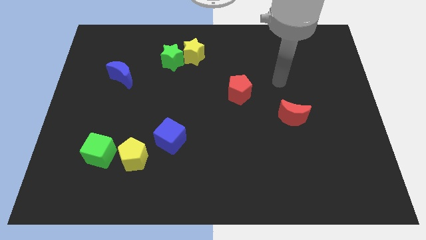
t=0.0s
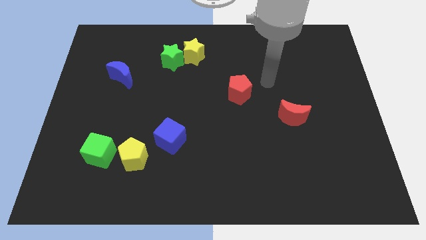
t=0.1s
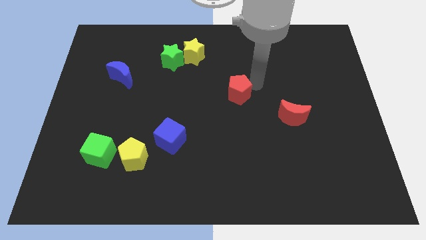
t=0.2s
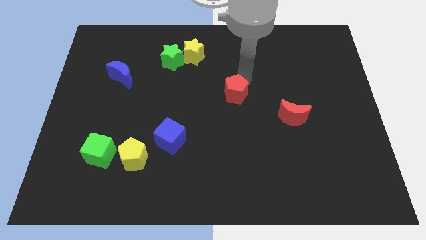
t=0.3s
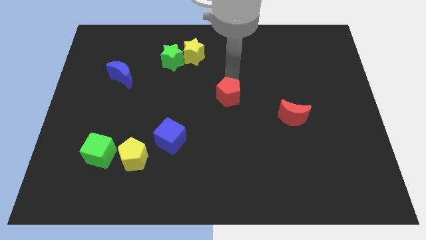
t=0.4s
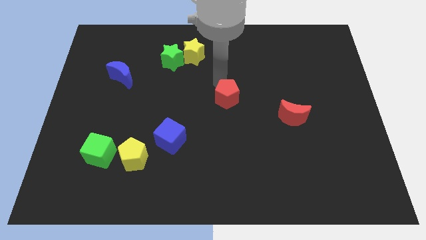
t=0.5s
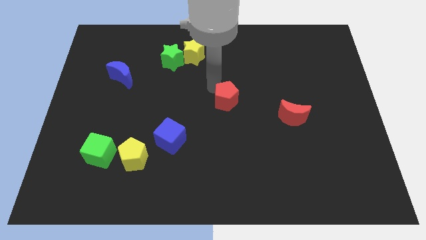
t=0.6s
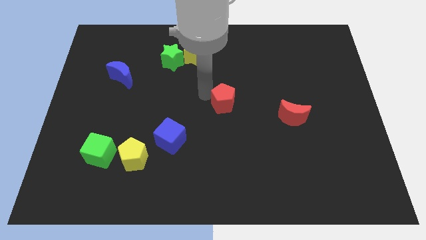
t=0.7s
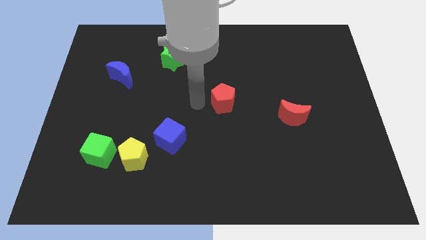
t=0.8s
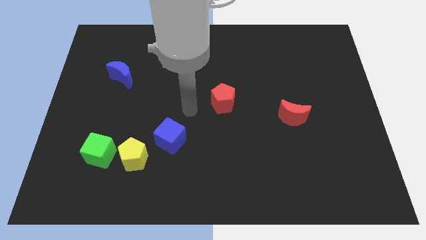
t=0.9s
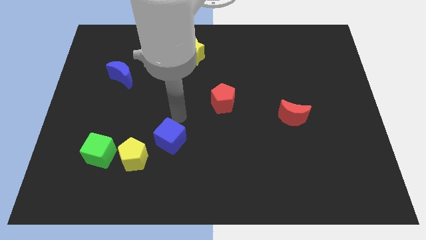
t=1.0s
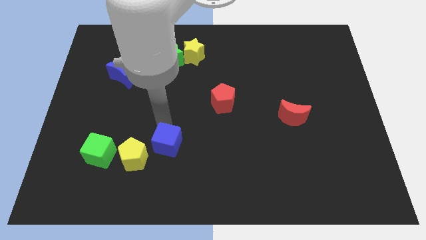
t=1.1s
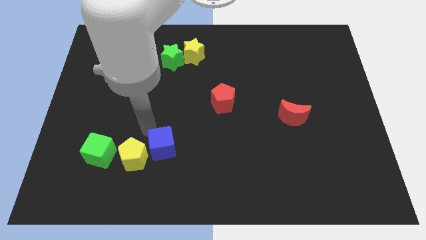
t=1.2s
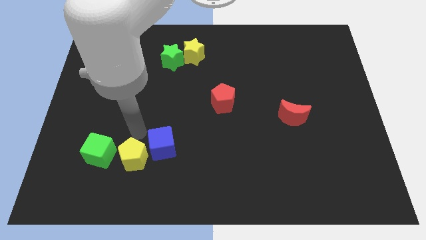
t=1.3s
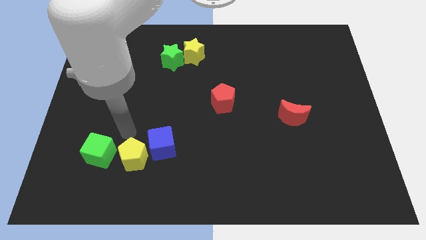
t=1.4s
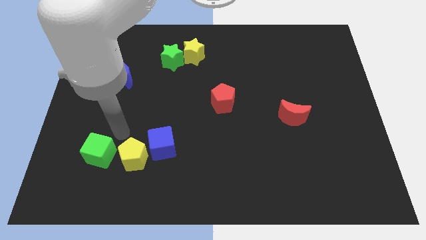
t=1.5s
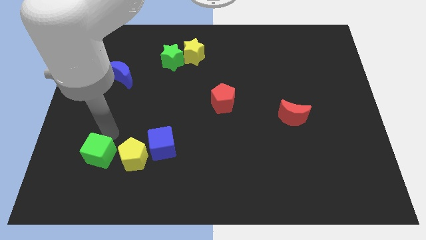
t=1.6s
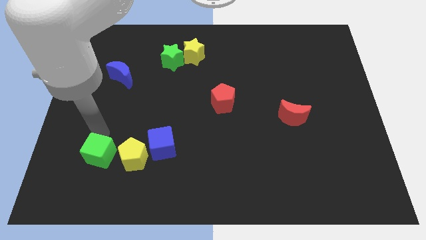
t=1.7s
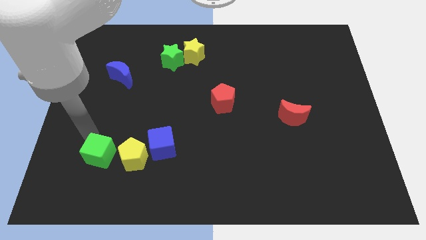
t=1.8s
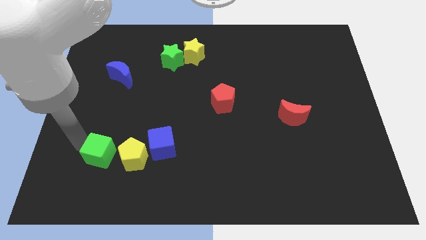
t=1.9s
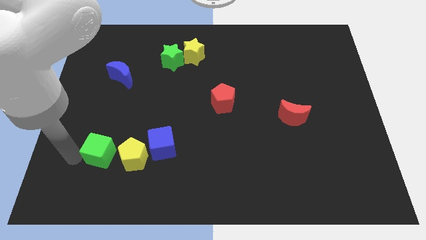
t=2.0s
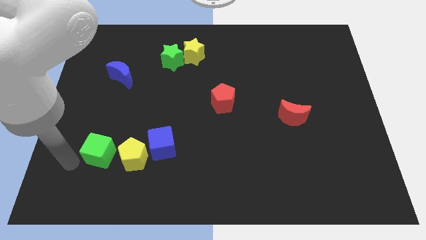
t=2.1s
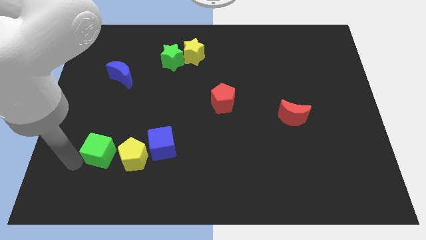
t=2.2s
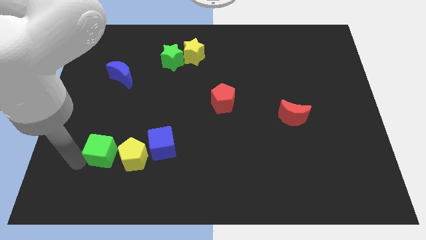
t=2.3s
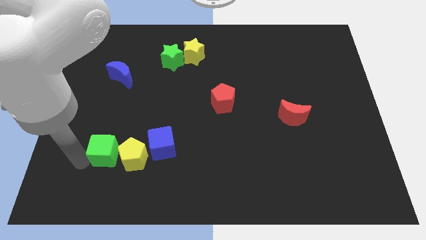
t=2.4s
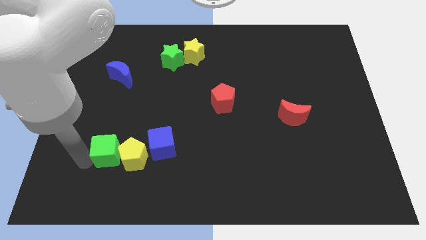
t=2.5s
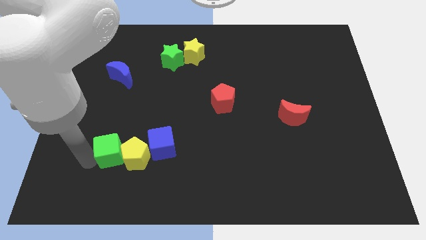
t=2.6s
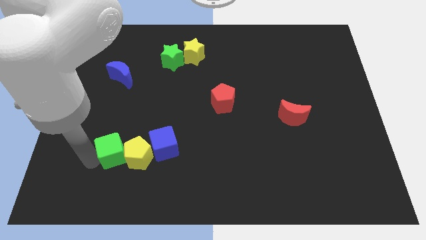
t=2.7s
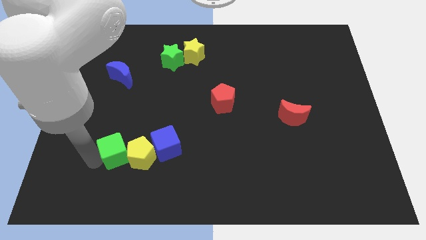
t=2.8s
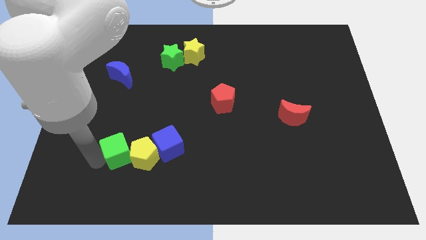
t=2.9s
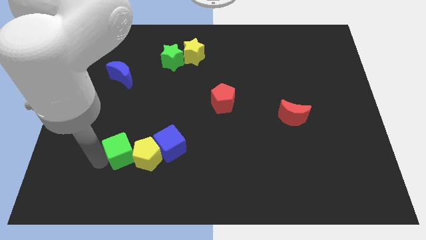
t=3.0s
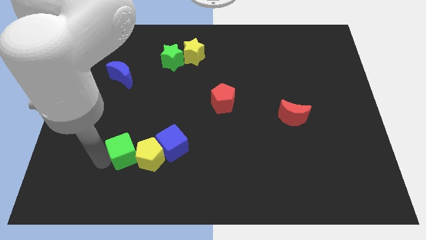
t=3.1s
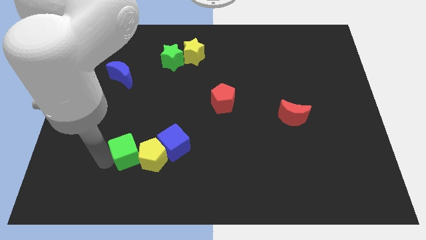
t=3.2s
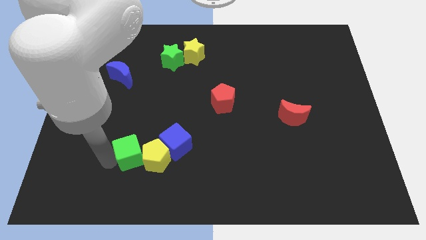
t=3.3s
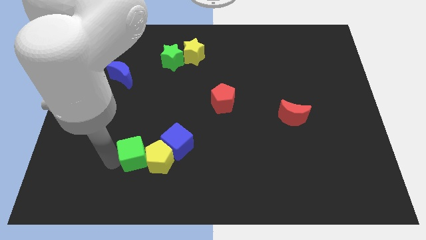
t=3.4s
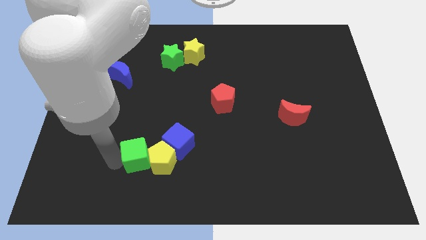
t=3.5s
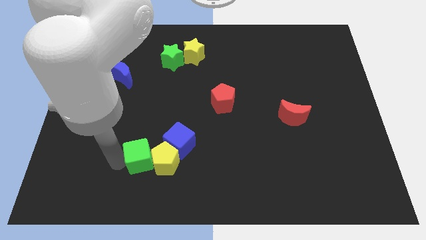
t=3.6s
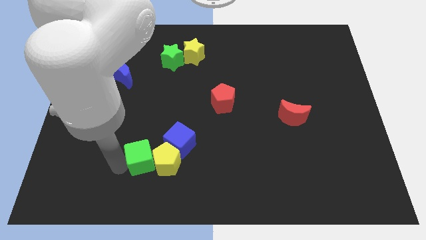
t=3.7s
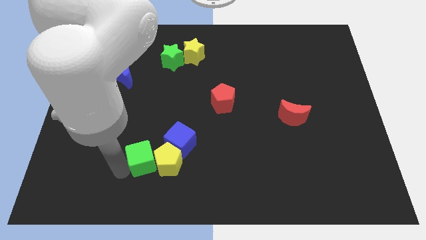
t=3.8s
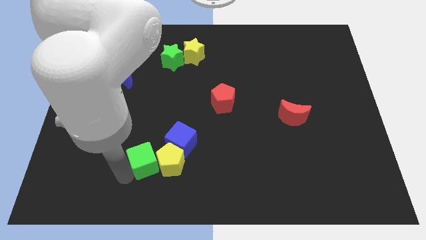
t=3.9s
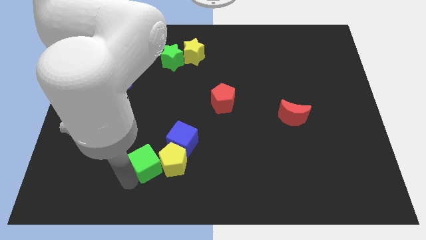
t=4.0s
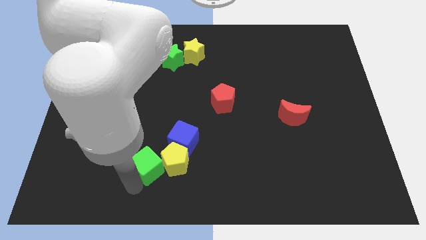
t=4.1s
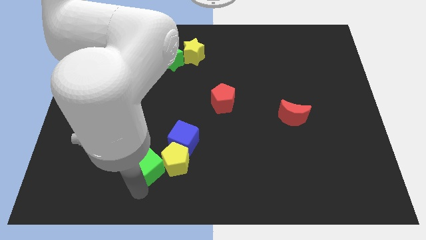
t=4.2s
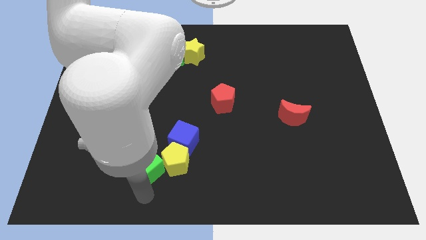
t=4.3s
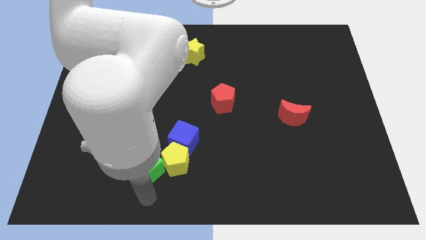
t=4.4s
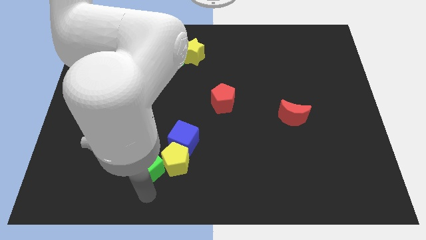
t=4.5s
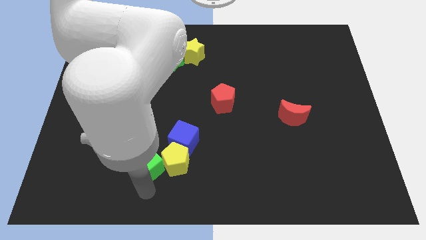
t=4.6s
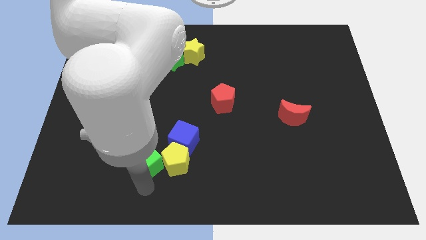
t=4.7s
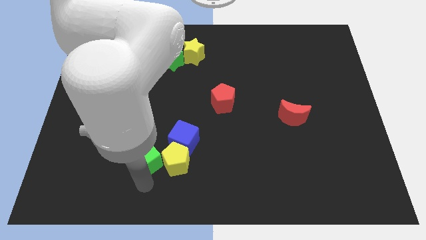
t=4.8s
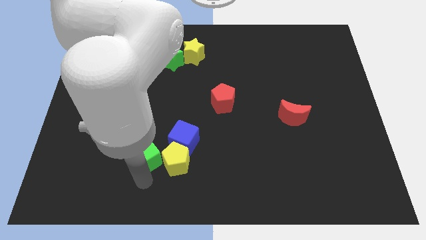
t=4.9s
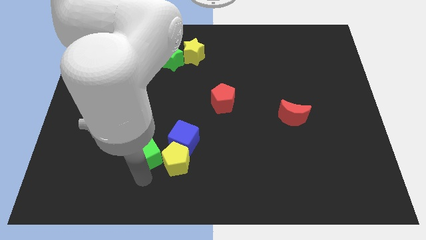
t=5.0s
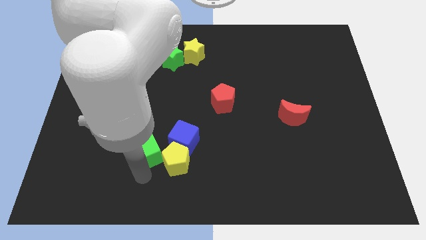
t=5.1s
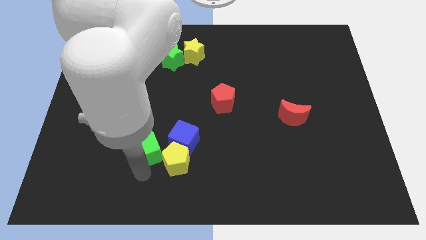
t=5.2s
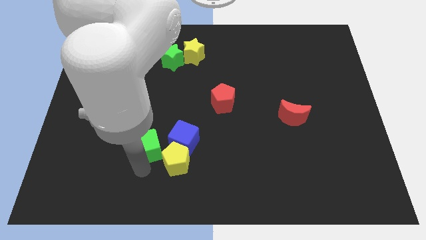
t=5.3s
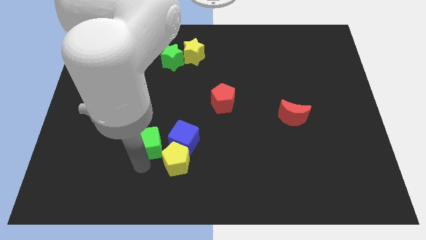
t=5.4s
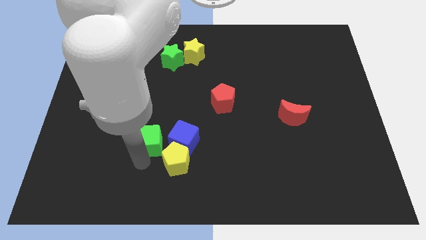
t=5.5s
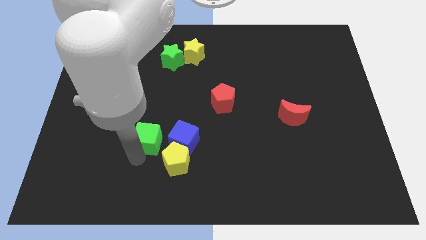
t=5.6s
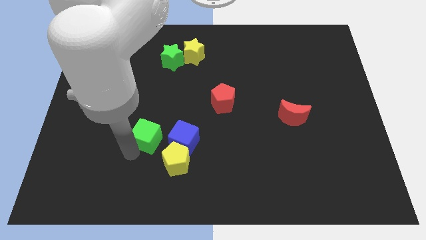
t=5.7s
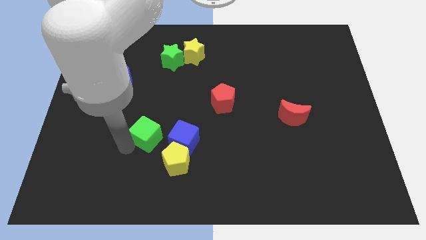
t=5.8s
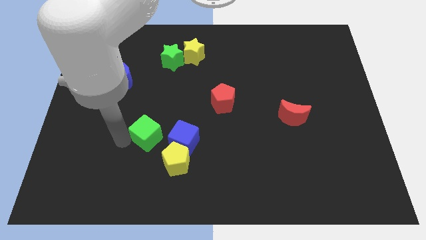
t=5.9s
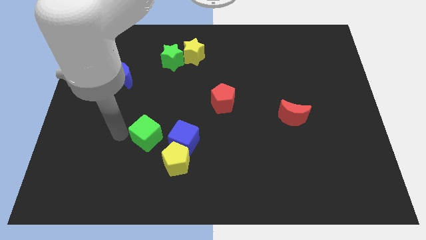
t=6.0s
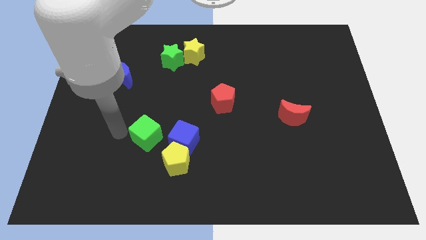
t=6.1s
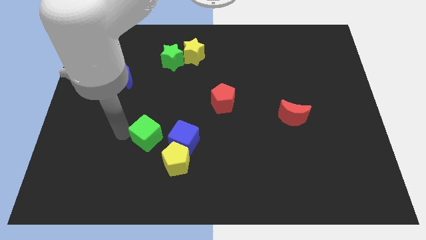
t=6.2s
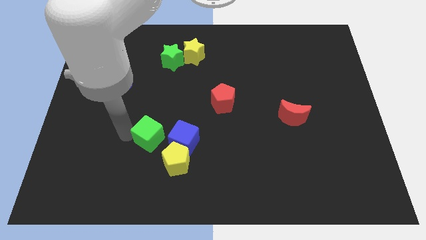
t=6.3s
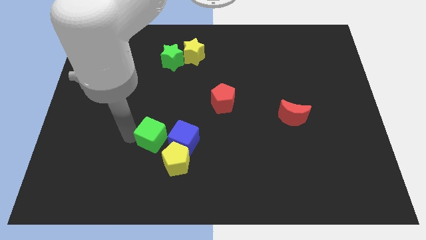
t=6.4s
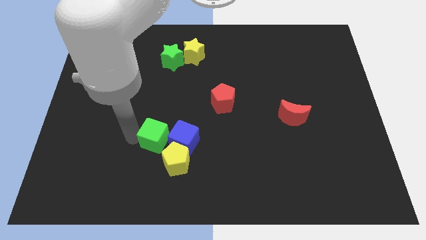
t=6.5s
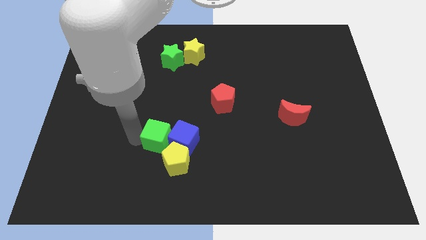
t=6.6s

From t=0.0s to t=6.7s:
move the green cube close to the blue cube
